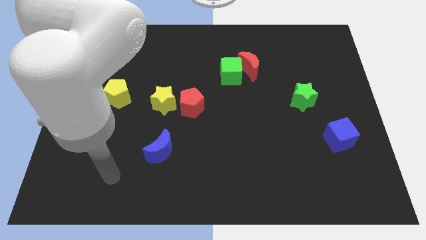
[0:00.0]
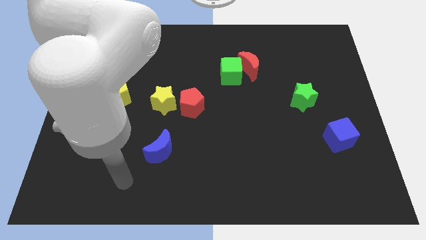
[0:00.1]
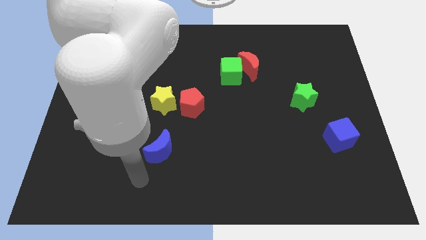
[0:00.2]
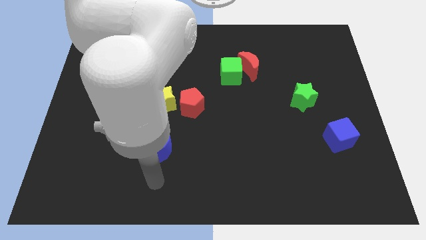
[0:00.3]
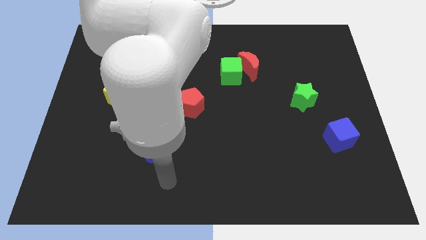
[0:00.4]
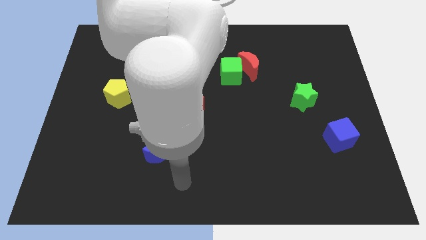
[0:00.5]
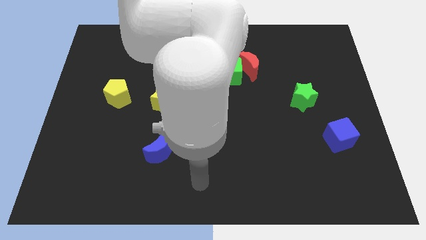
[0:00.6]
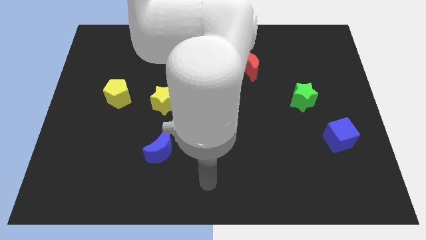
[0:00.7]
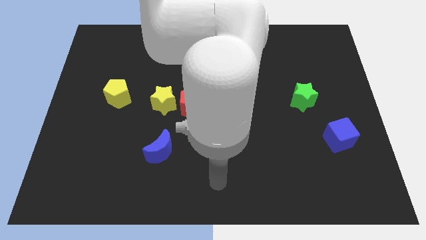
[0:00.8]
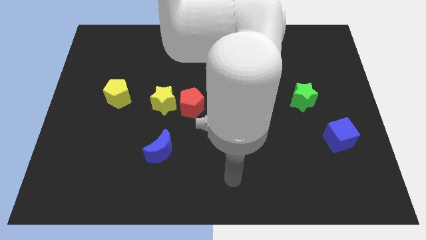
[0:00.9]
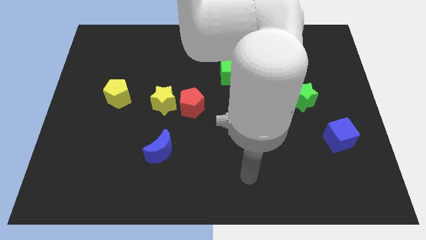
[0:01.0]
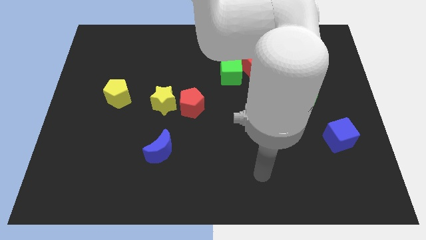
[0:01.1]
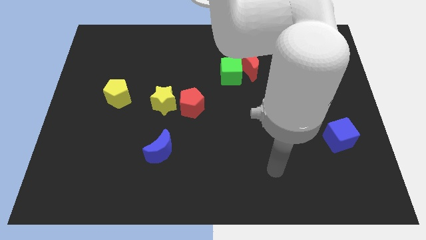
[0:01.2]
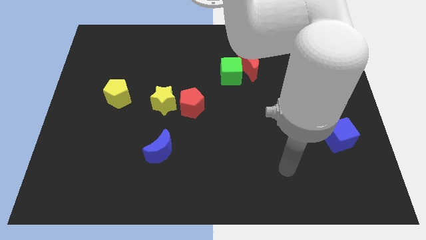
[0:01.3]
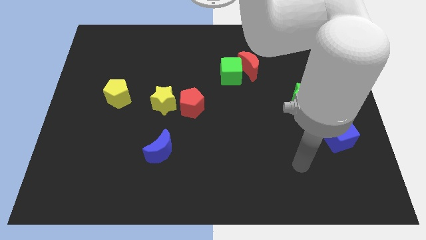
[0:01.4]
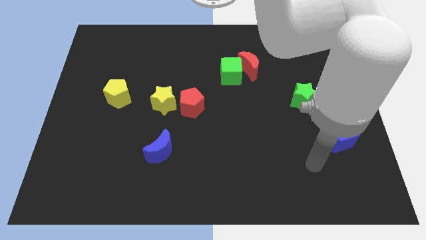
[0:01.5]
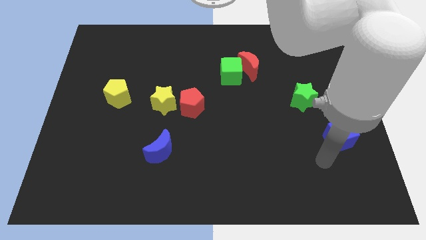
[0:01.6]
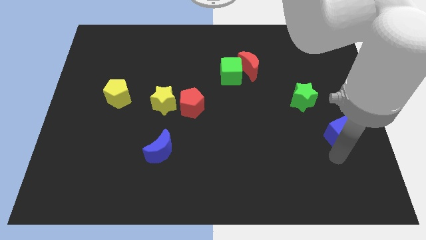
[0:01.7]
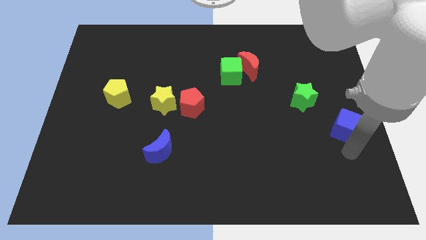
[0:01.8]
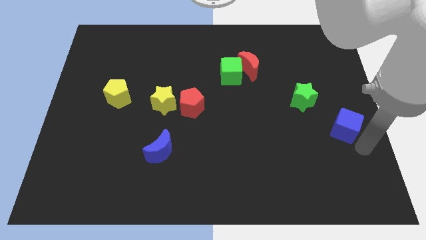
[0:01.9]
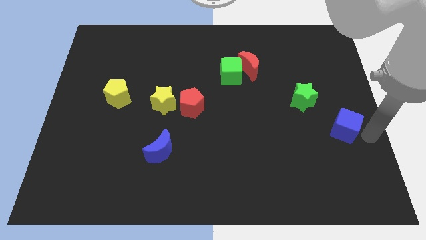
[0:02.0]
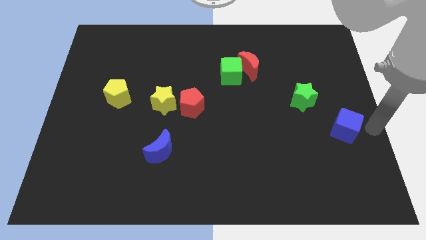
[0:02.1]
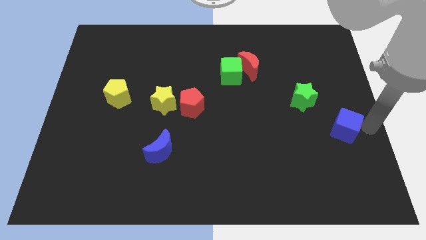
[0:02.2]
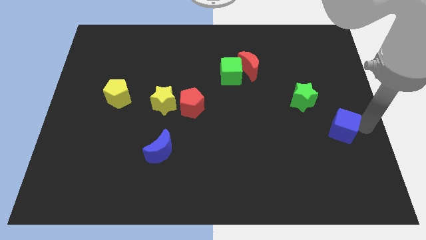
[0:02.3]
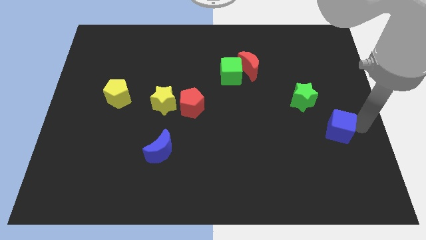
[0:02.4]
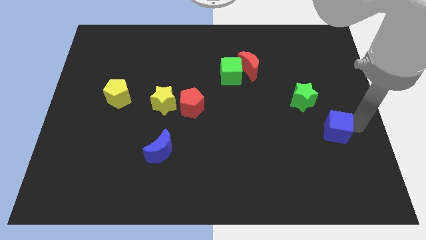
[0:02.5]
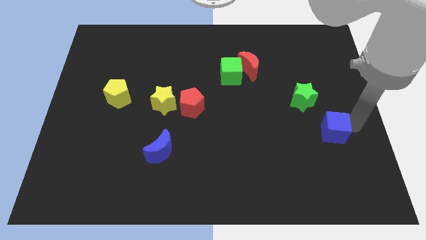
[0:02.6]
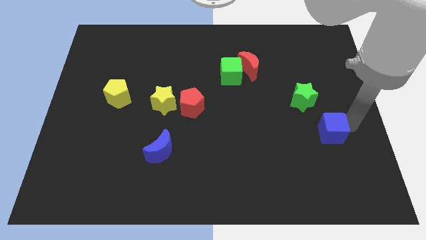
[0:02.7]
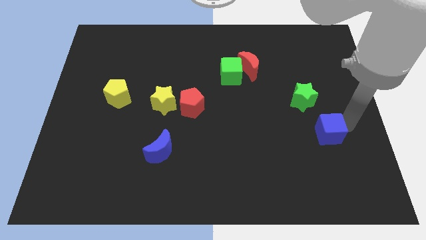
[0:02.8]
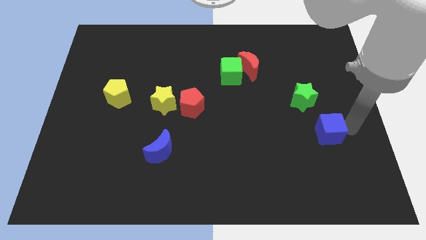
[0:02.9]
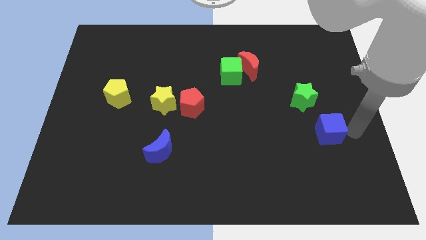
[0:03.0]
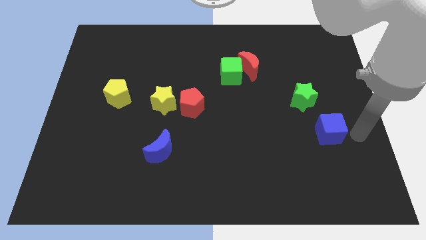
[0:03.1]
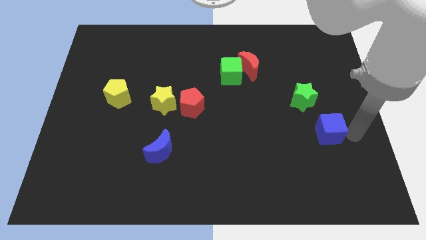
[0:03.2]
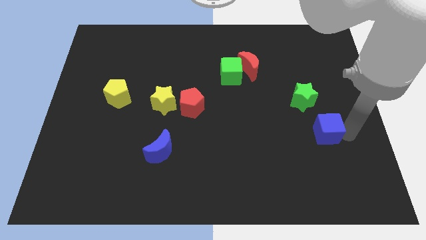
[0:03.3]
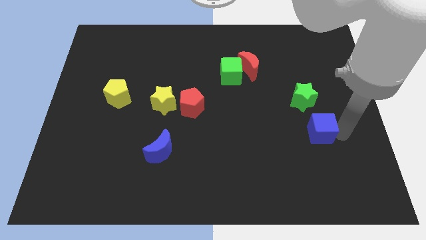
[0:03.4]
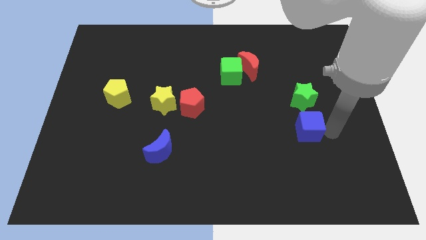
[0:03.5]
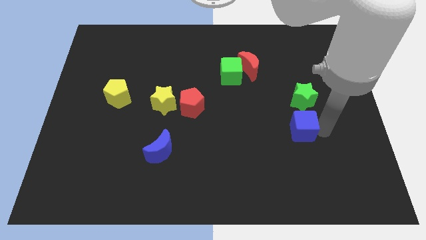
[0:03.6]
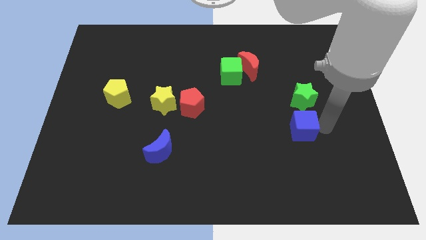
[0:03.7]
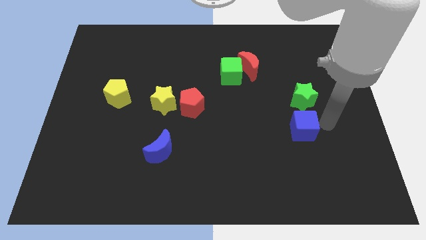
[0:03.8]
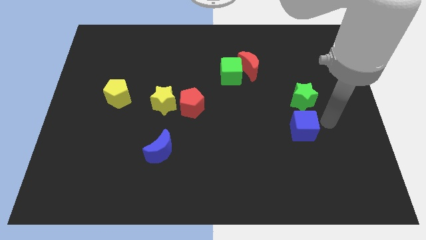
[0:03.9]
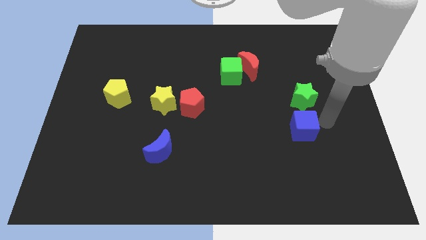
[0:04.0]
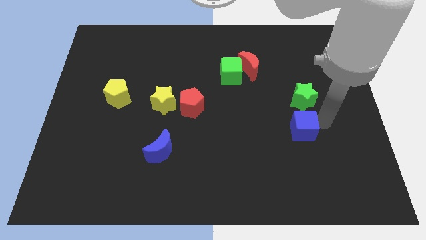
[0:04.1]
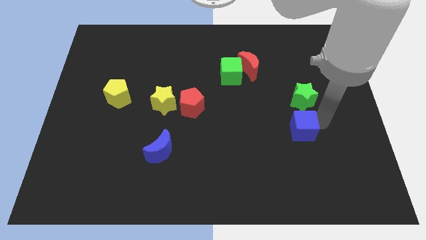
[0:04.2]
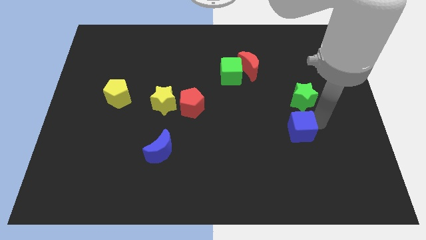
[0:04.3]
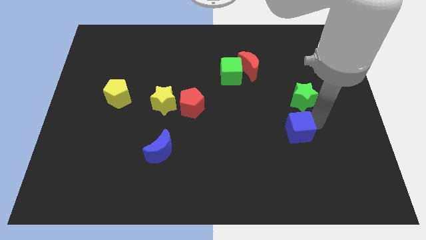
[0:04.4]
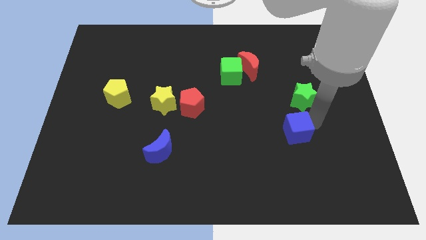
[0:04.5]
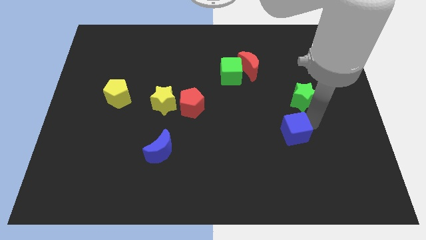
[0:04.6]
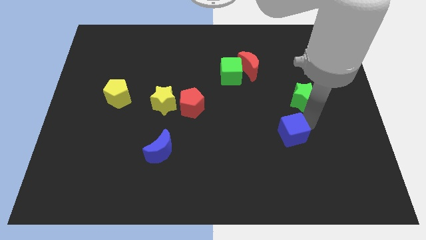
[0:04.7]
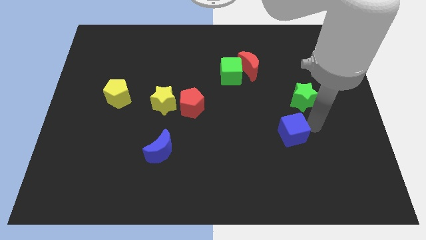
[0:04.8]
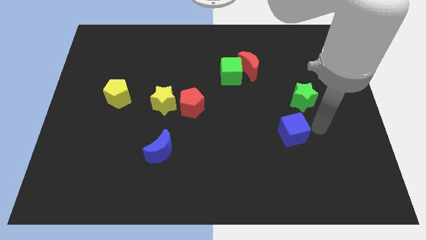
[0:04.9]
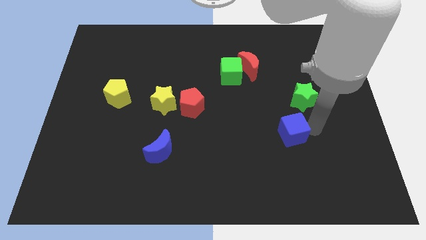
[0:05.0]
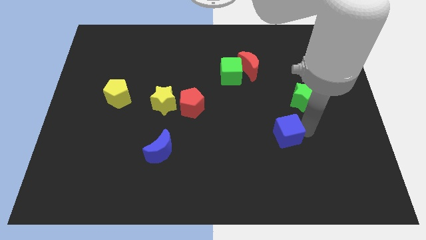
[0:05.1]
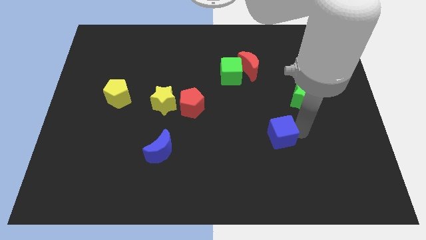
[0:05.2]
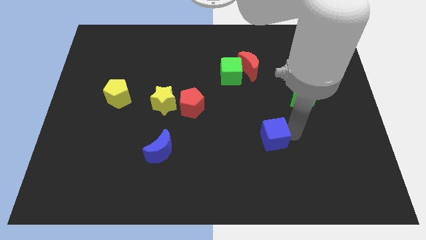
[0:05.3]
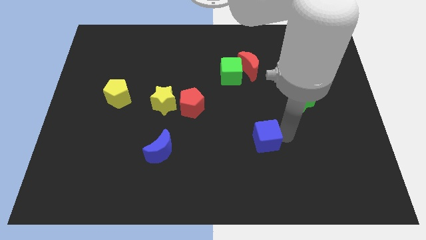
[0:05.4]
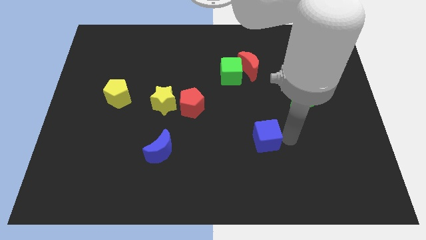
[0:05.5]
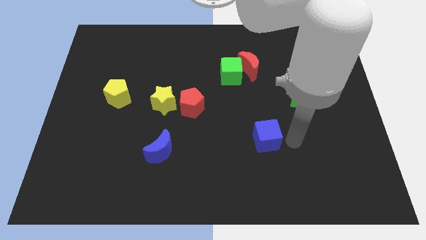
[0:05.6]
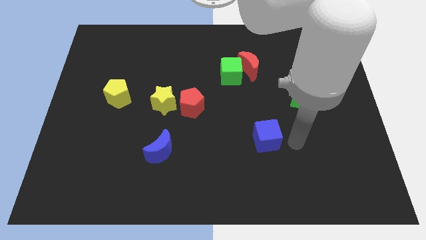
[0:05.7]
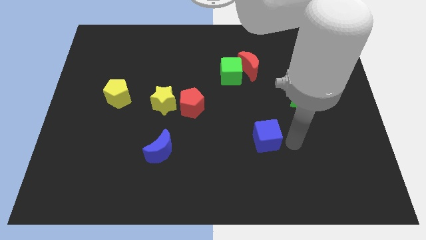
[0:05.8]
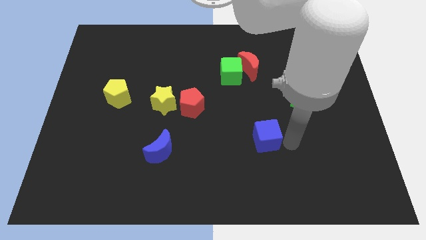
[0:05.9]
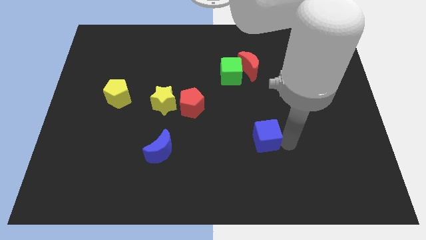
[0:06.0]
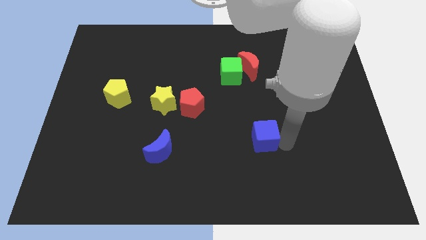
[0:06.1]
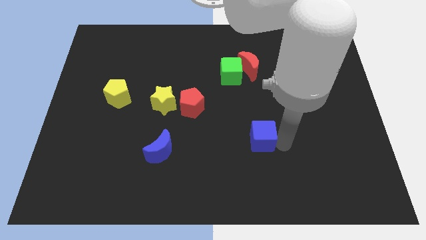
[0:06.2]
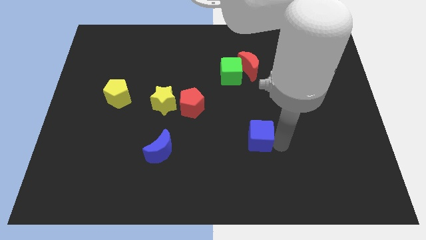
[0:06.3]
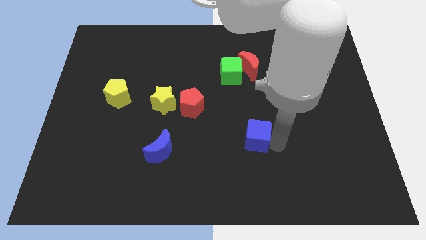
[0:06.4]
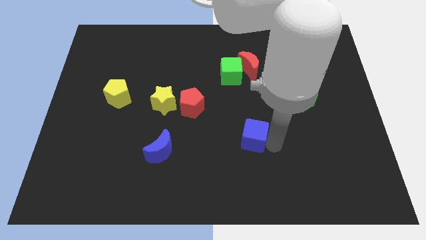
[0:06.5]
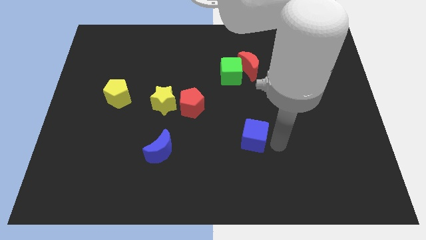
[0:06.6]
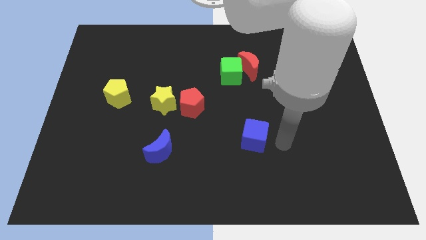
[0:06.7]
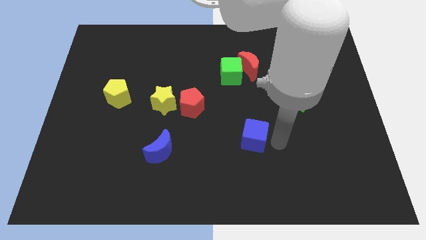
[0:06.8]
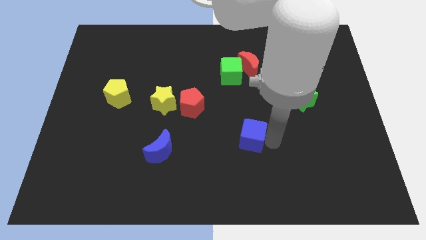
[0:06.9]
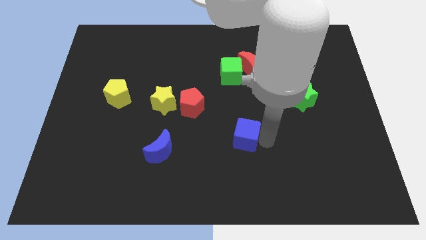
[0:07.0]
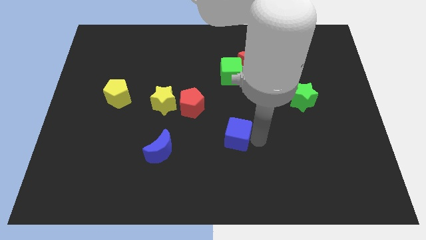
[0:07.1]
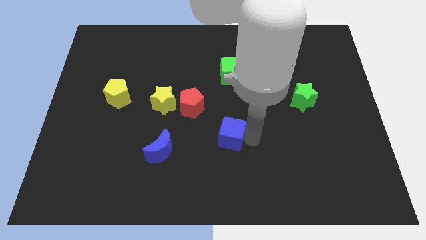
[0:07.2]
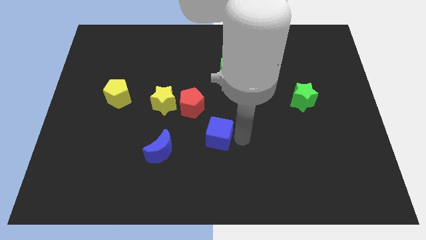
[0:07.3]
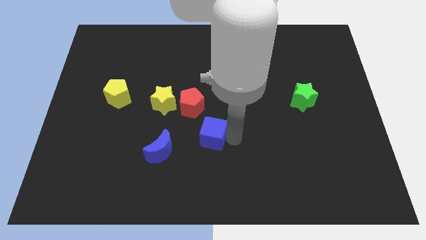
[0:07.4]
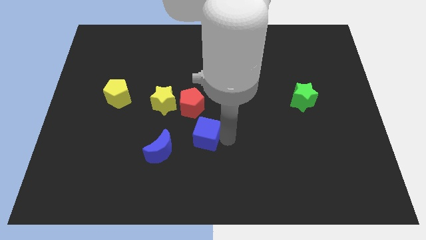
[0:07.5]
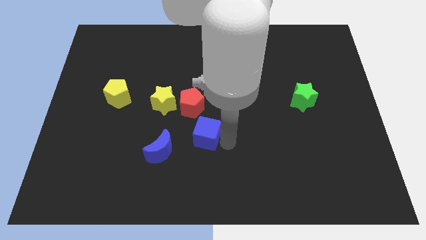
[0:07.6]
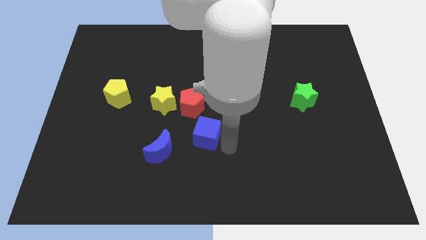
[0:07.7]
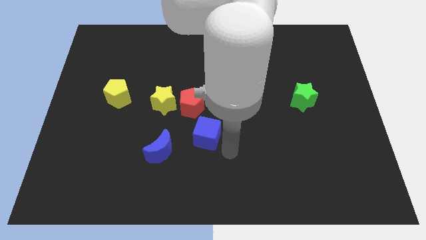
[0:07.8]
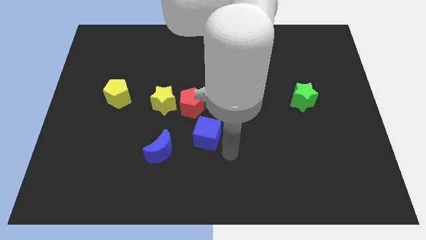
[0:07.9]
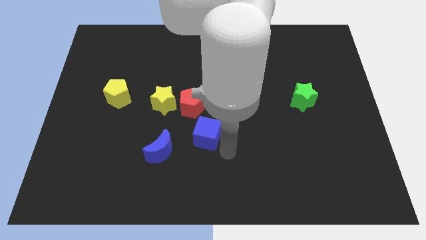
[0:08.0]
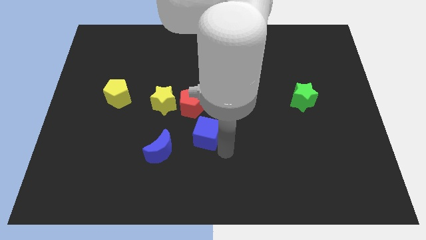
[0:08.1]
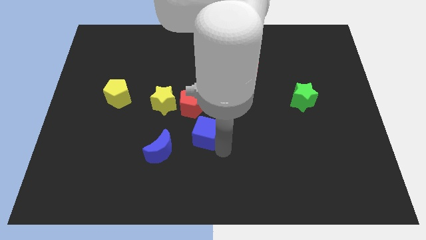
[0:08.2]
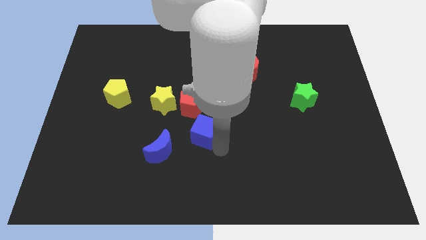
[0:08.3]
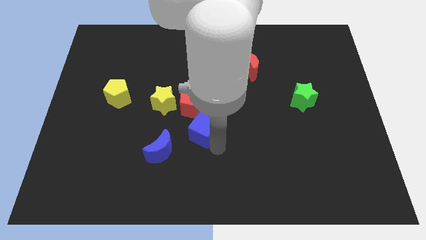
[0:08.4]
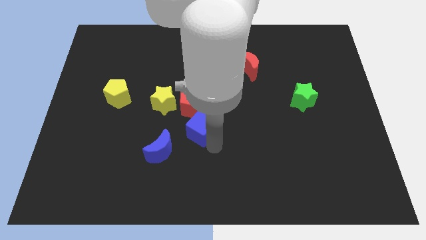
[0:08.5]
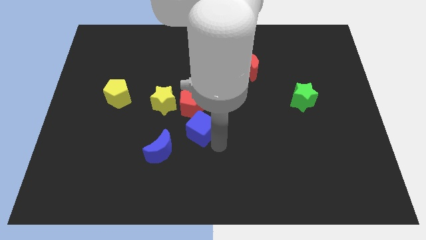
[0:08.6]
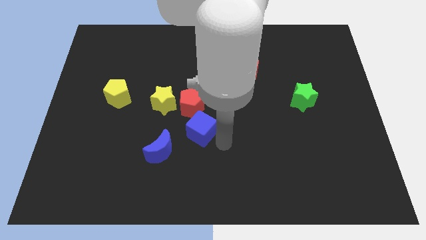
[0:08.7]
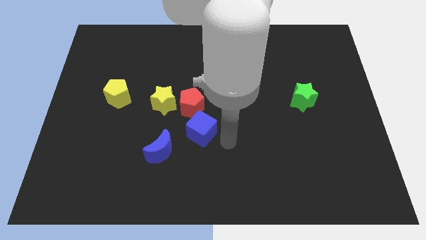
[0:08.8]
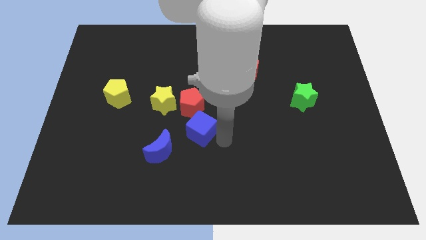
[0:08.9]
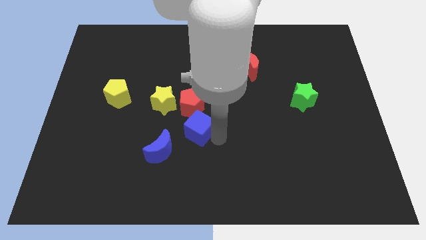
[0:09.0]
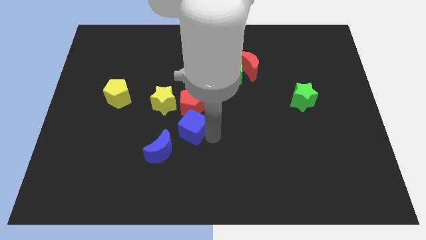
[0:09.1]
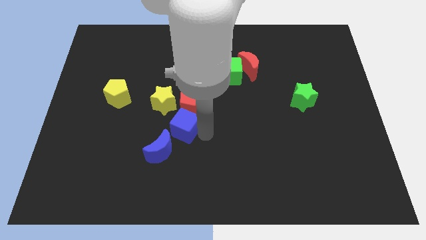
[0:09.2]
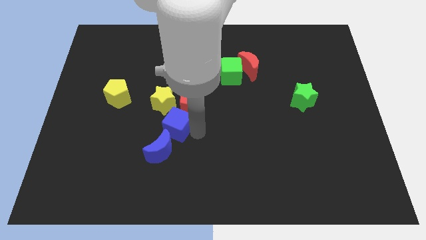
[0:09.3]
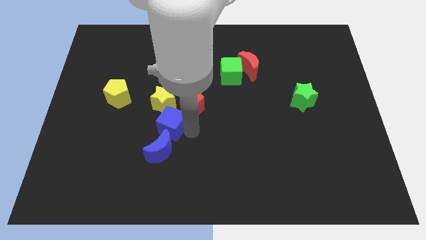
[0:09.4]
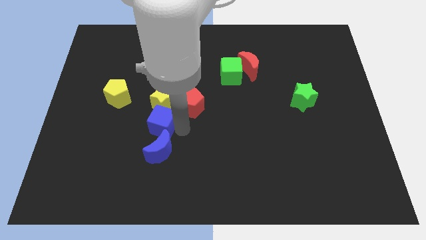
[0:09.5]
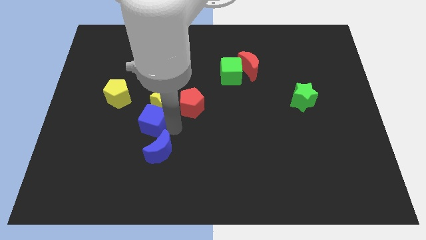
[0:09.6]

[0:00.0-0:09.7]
move the blue cube to the bottom right of the yellow pentagon
